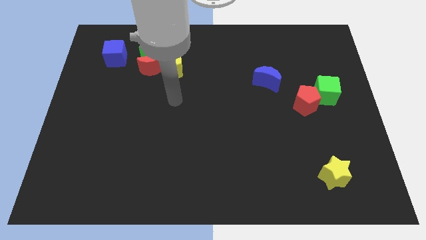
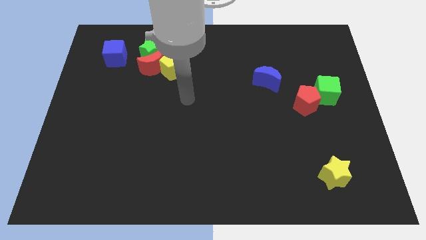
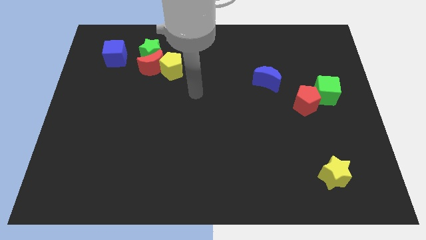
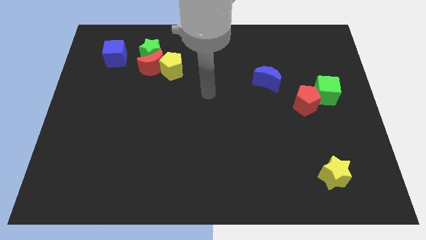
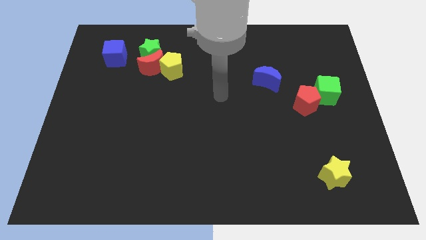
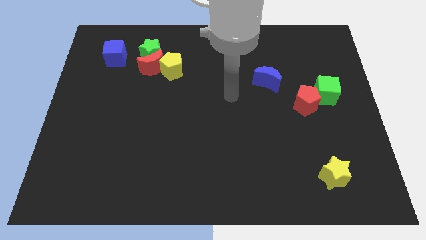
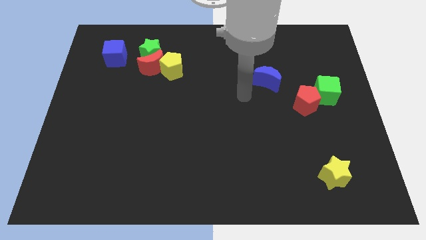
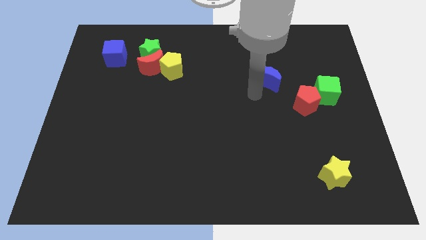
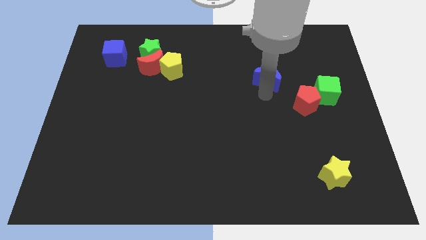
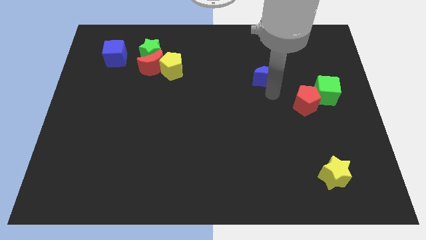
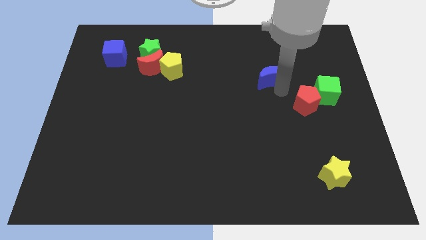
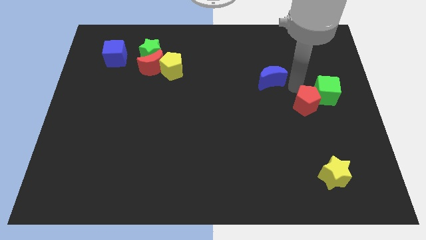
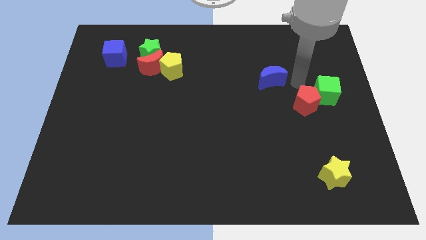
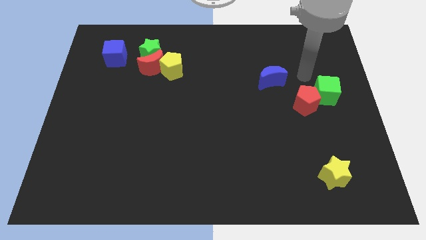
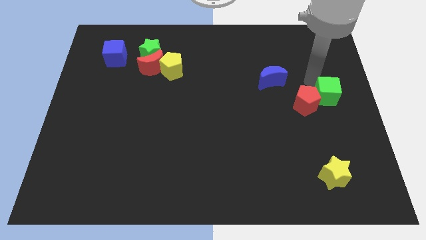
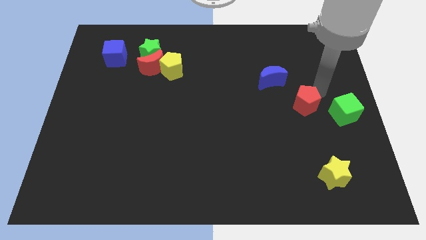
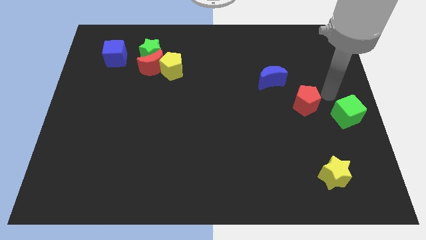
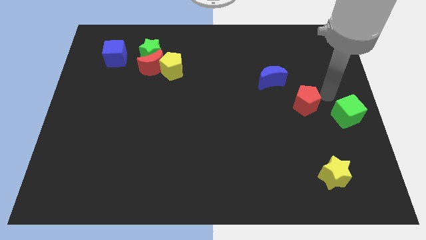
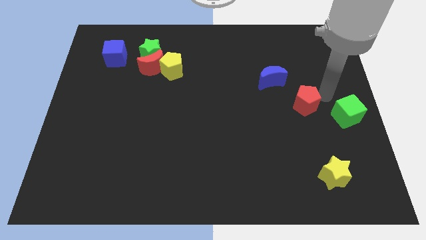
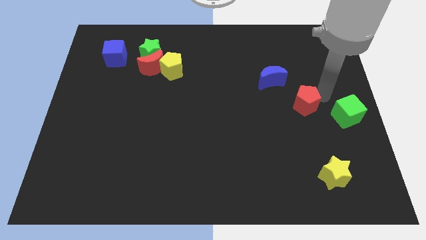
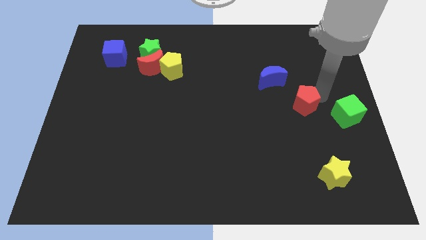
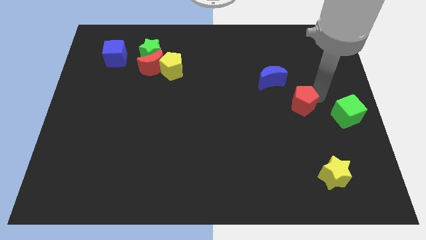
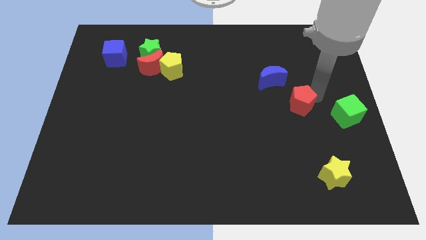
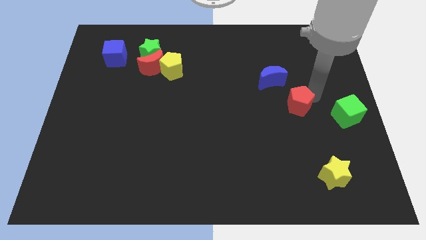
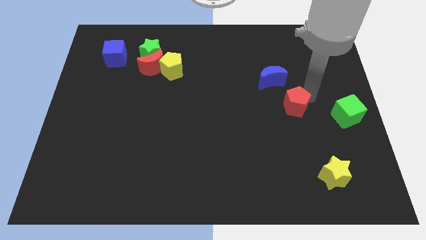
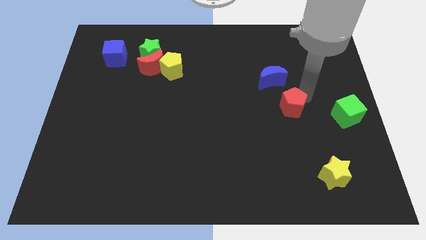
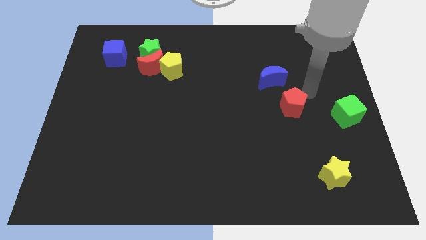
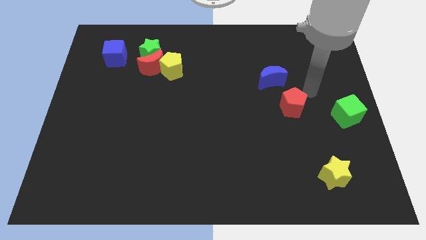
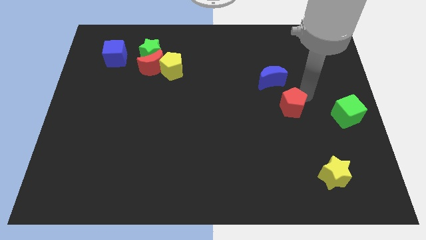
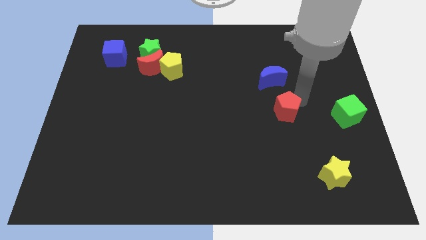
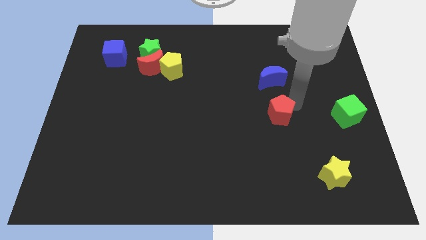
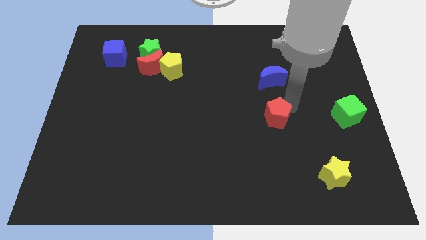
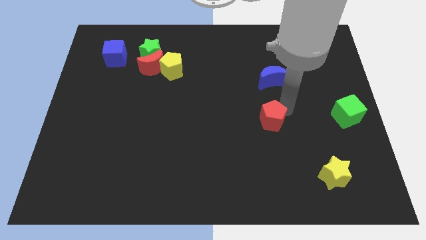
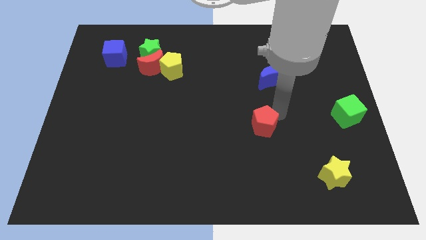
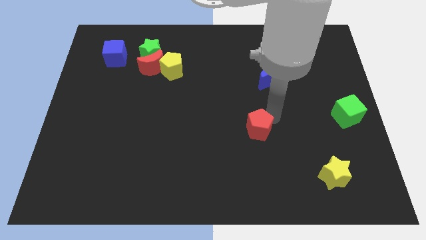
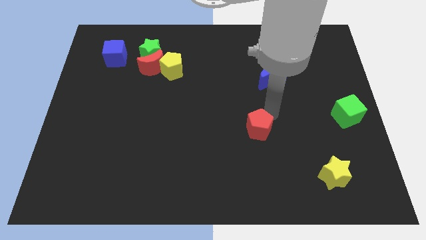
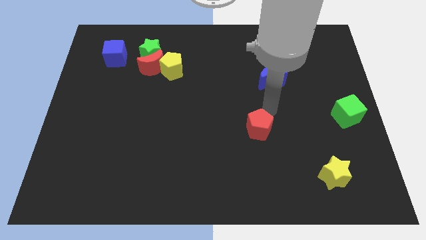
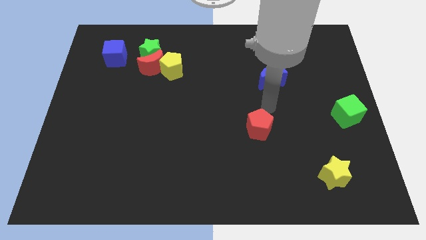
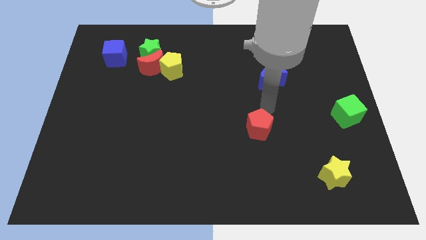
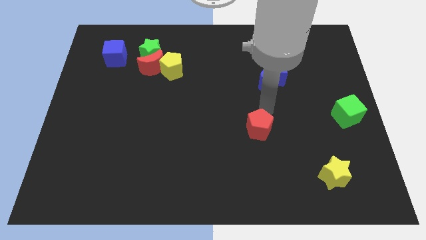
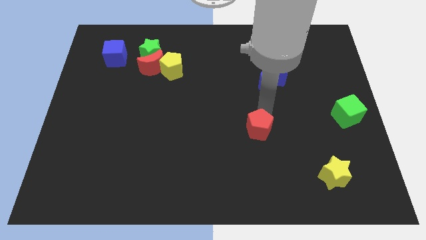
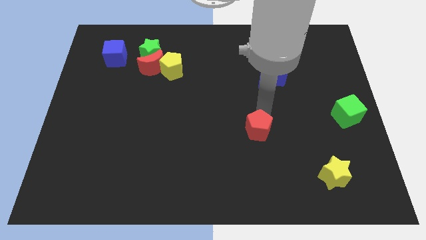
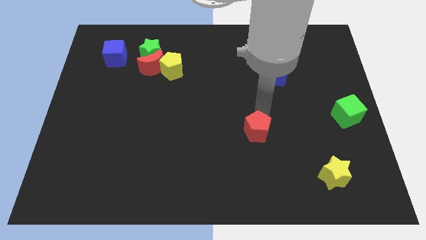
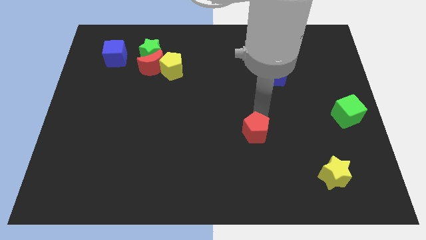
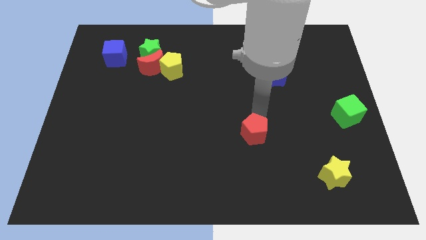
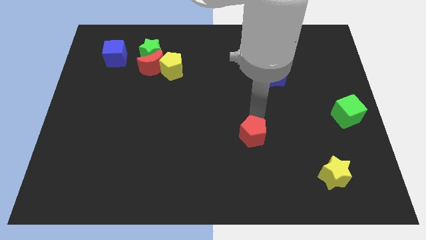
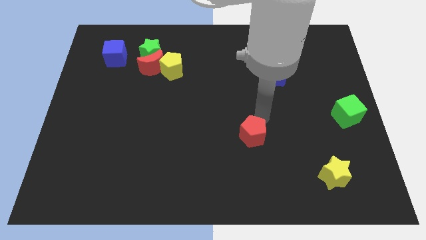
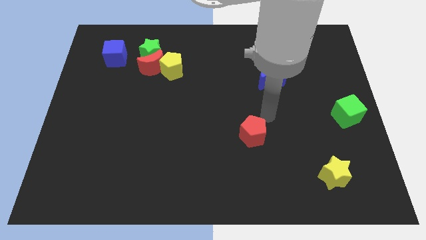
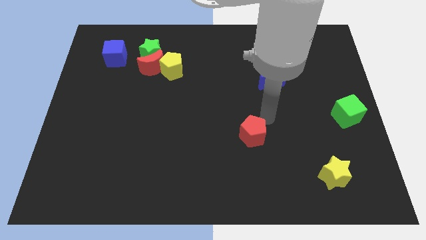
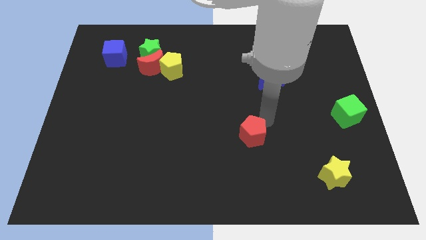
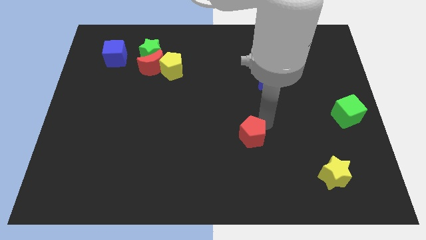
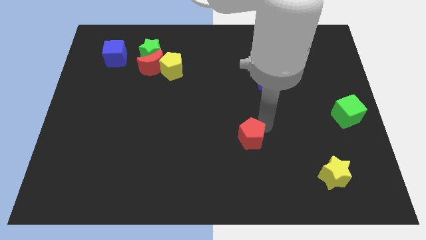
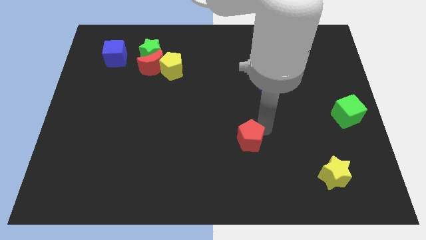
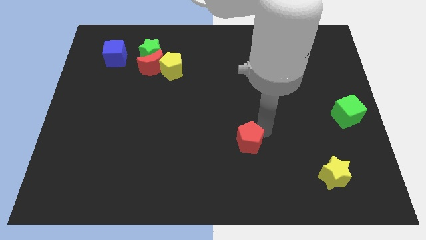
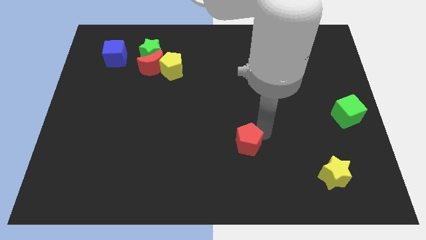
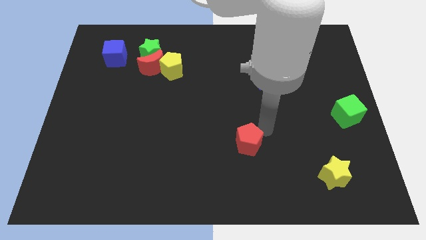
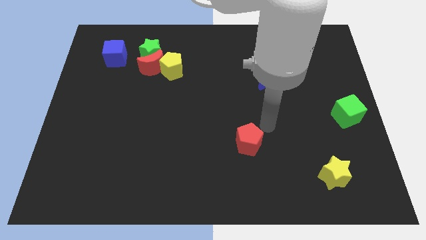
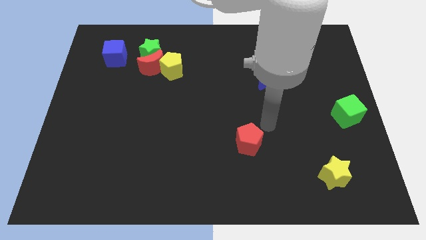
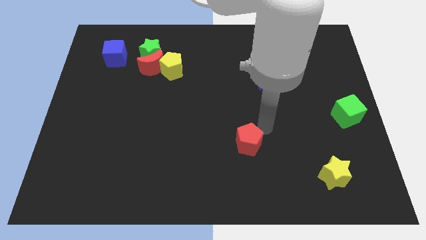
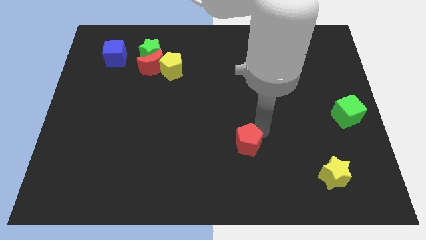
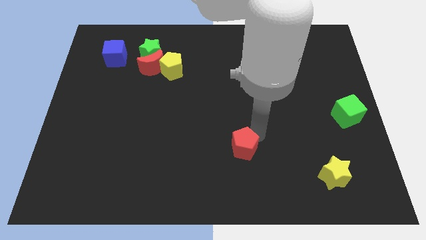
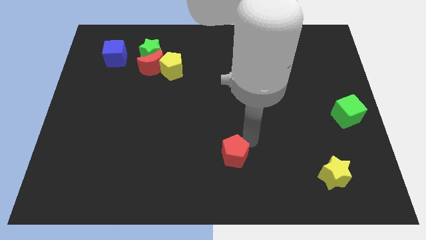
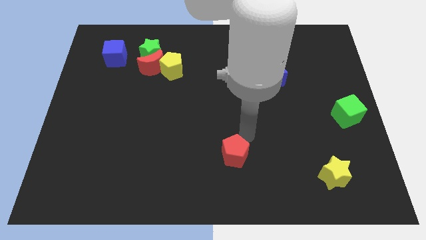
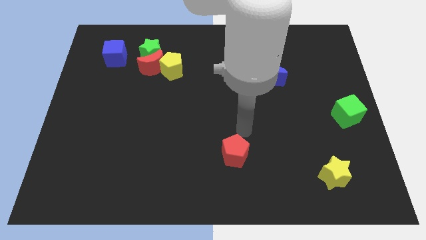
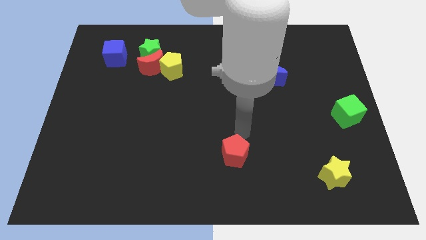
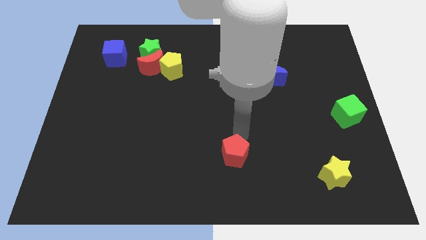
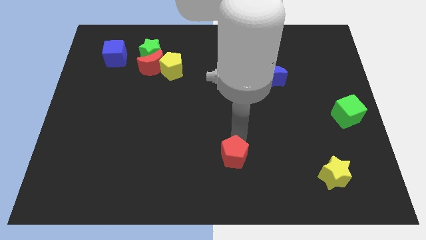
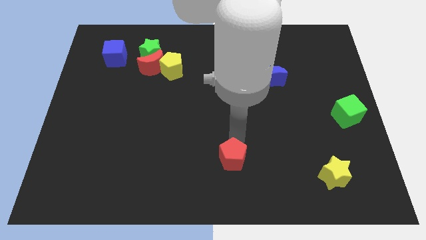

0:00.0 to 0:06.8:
slide the red pentagon to the bottom side
